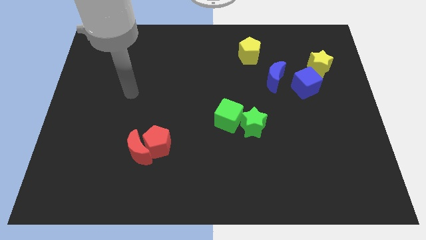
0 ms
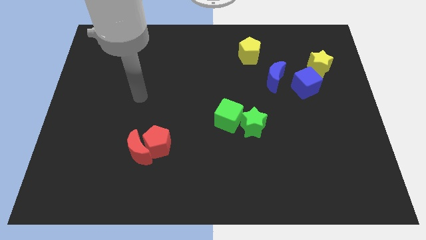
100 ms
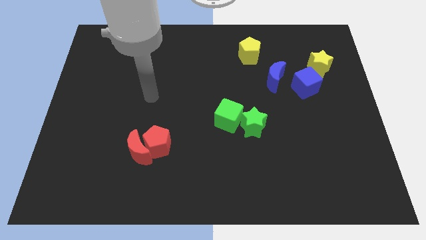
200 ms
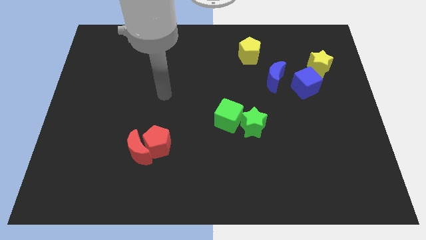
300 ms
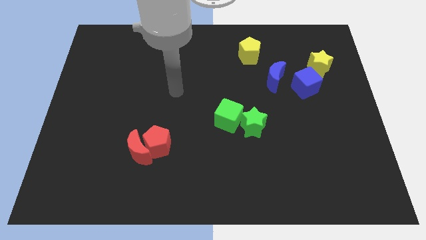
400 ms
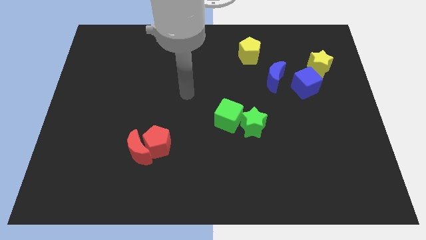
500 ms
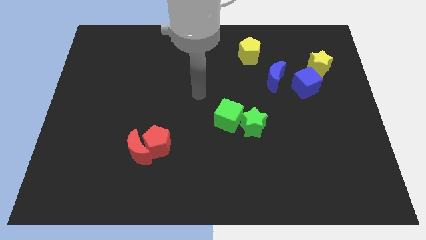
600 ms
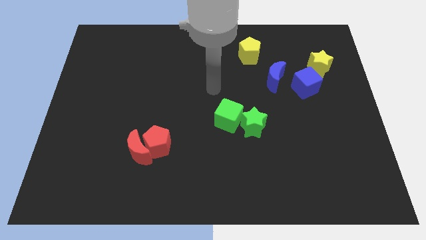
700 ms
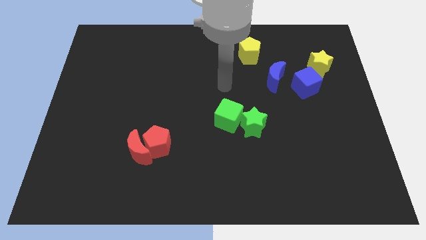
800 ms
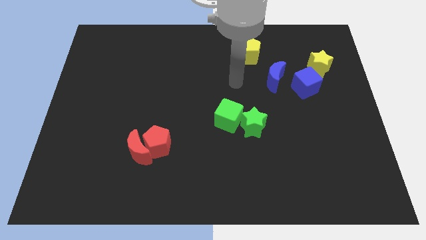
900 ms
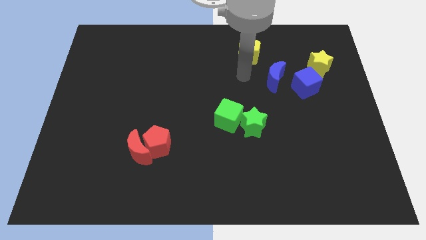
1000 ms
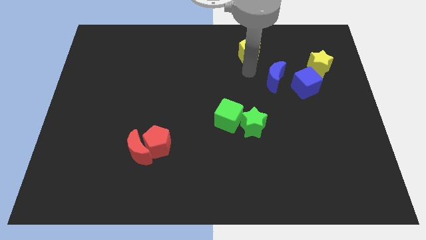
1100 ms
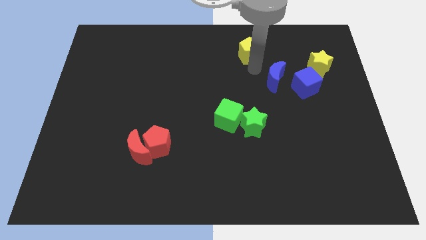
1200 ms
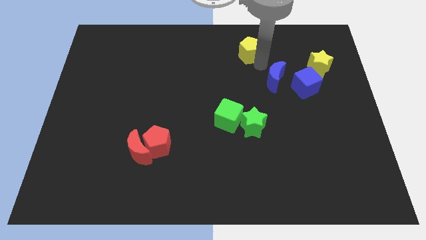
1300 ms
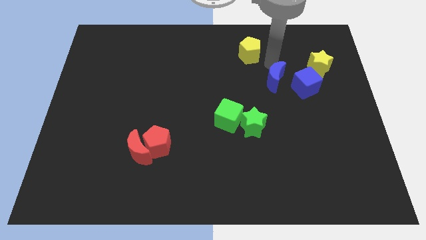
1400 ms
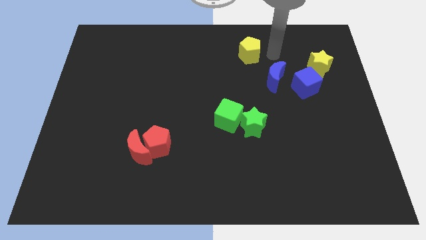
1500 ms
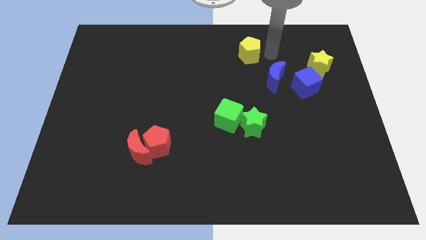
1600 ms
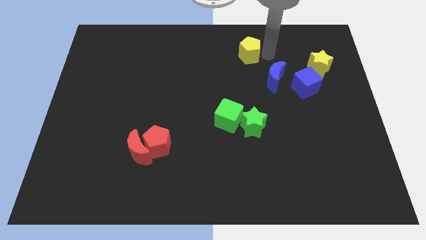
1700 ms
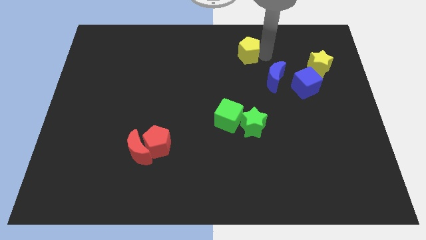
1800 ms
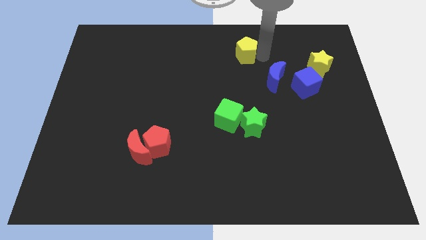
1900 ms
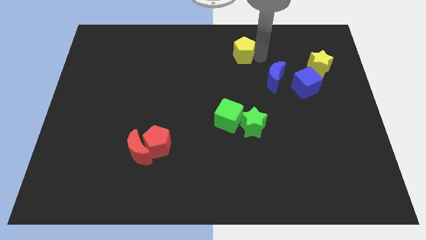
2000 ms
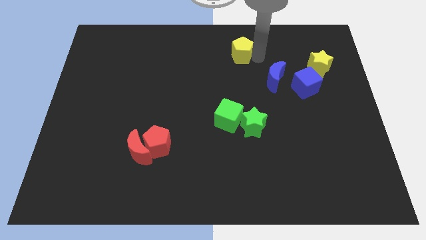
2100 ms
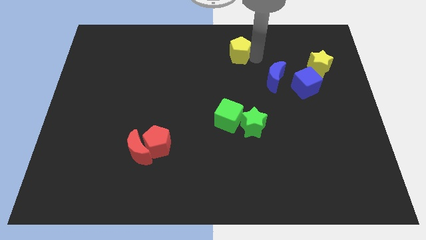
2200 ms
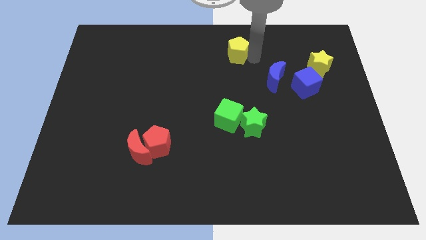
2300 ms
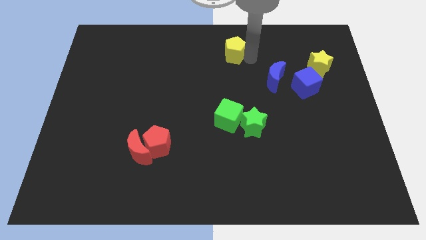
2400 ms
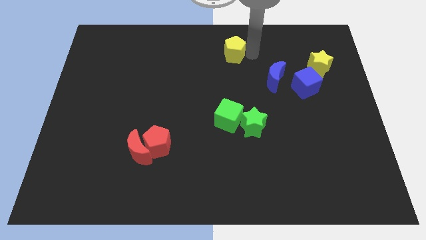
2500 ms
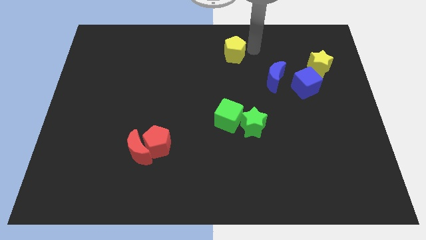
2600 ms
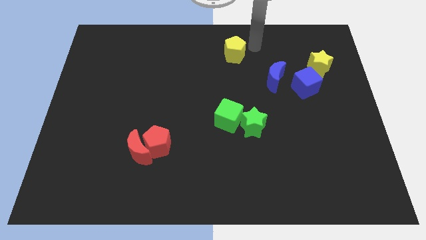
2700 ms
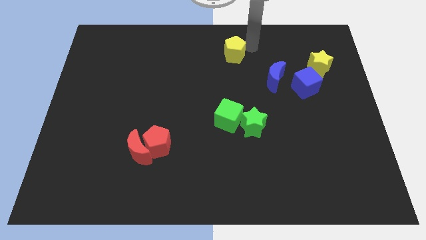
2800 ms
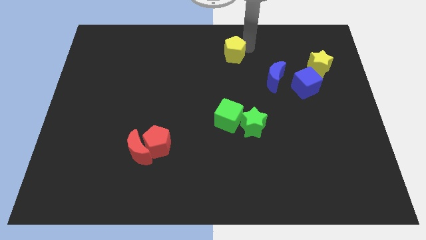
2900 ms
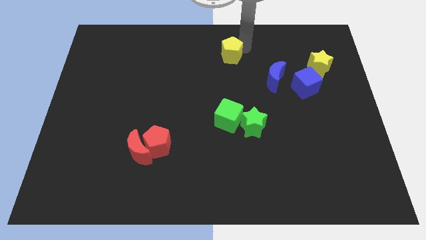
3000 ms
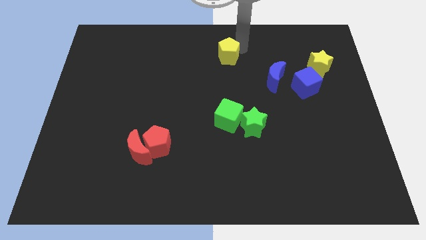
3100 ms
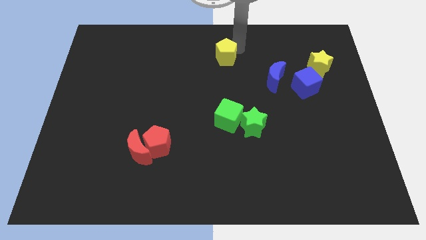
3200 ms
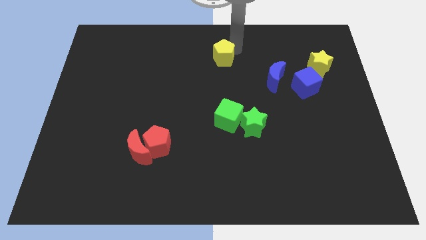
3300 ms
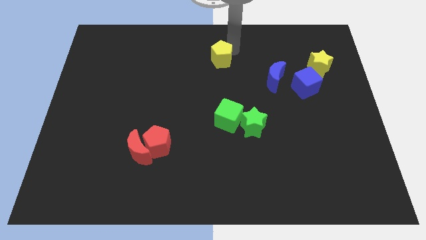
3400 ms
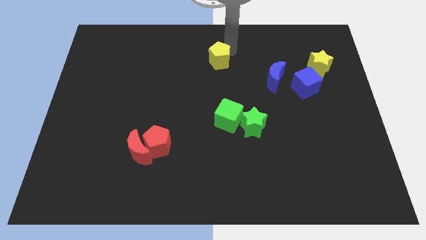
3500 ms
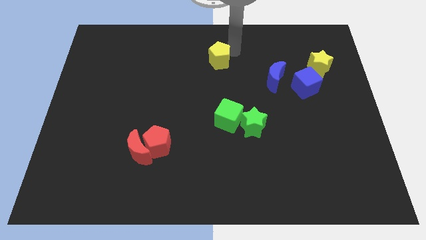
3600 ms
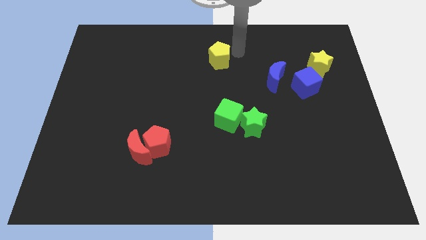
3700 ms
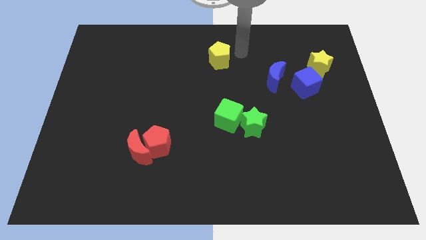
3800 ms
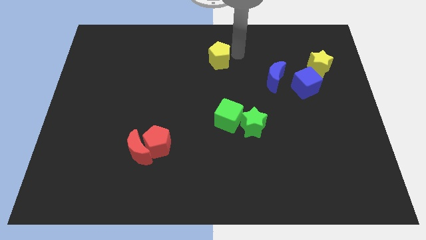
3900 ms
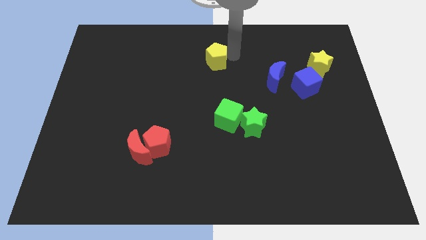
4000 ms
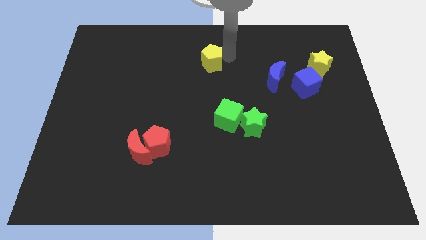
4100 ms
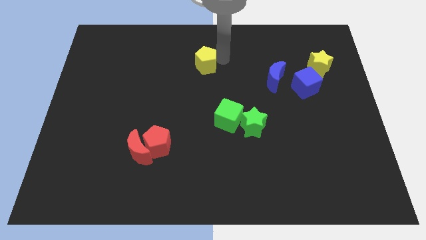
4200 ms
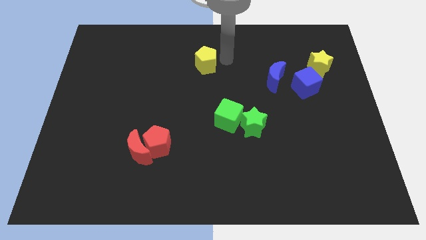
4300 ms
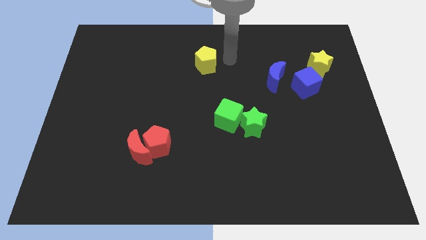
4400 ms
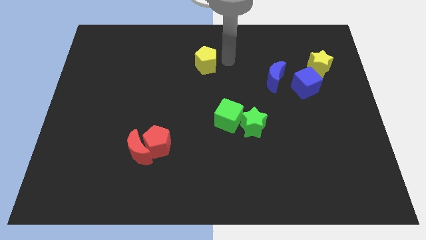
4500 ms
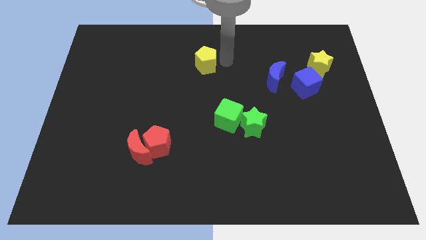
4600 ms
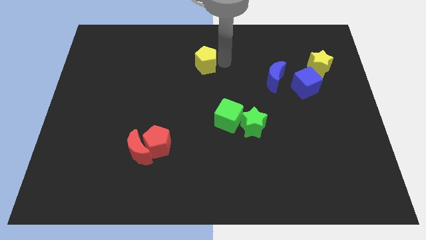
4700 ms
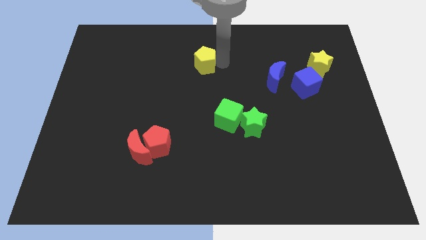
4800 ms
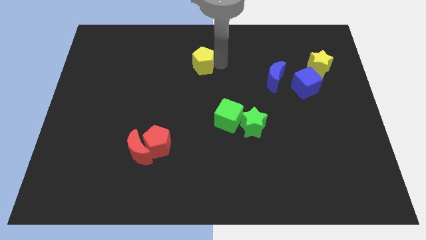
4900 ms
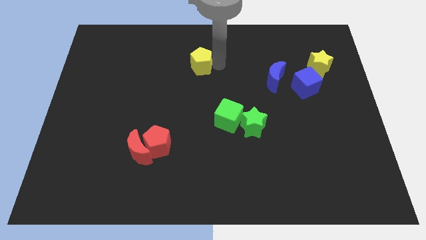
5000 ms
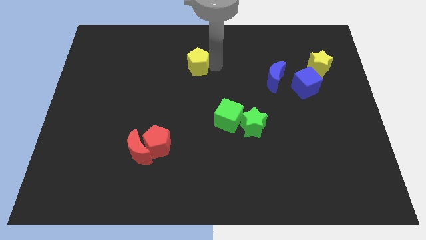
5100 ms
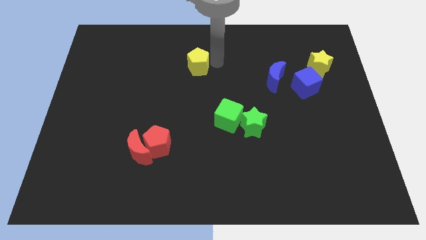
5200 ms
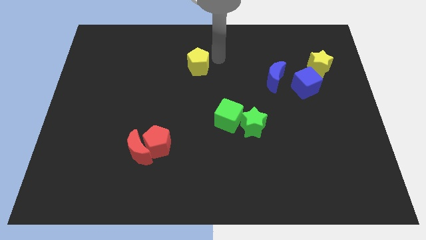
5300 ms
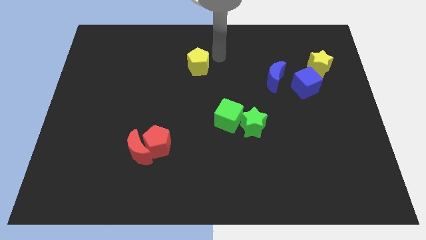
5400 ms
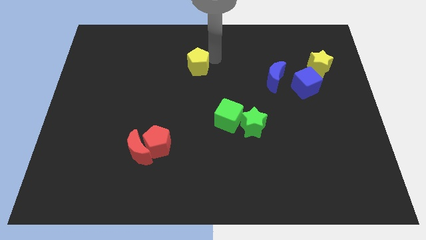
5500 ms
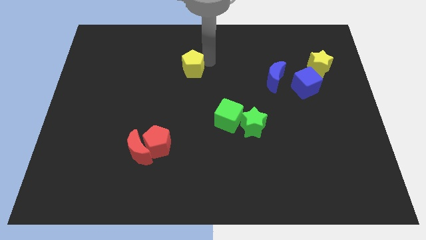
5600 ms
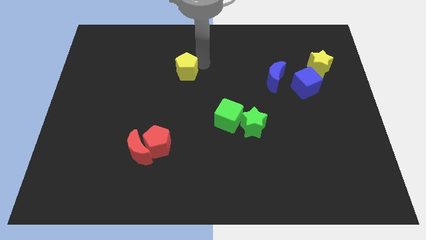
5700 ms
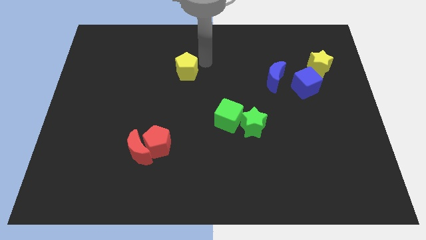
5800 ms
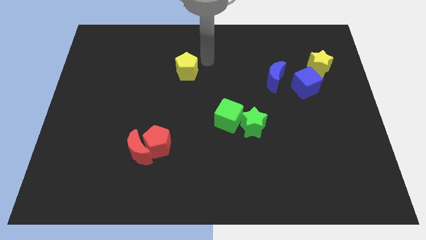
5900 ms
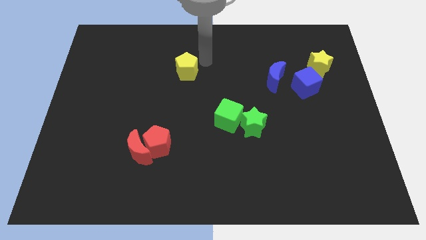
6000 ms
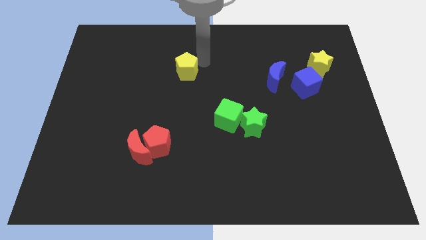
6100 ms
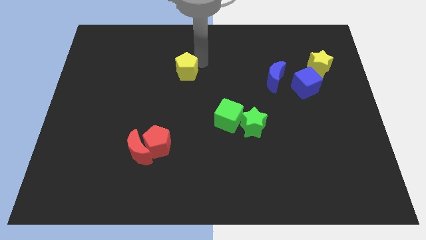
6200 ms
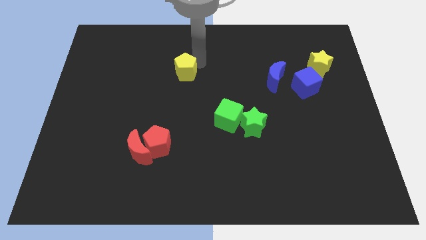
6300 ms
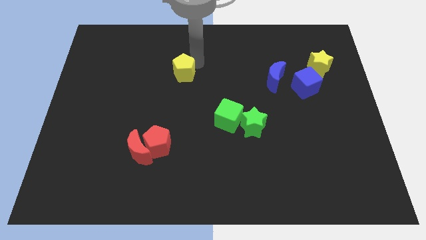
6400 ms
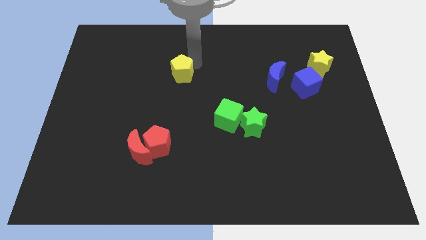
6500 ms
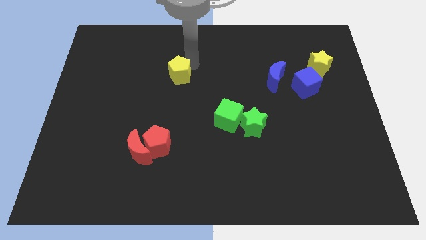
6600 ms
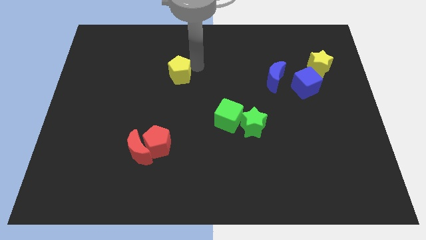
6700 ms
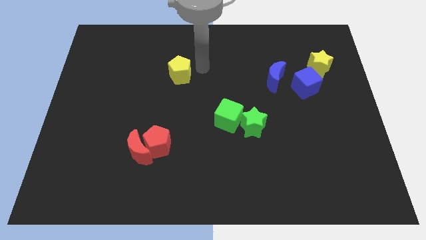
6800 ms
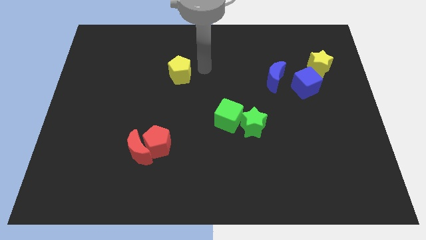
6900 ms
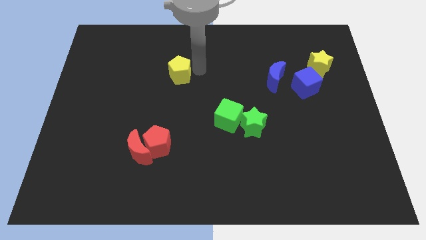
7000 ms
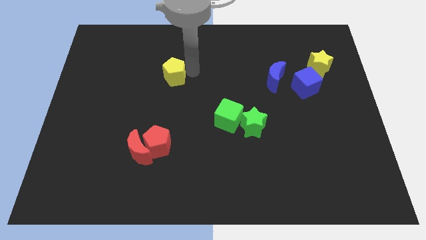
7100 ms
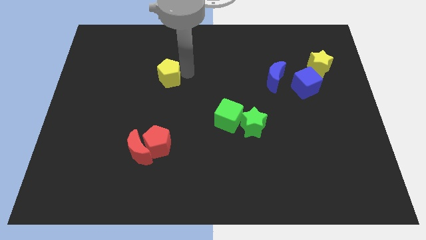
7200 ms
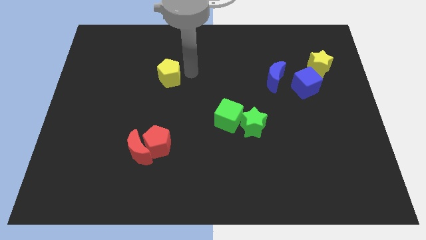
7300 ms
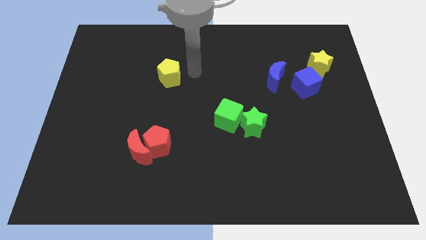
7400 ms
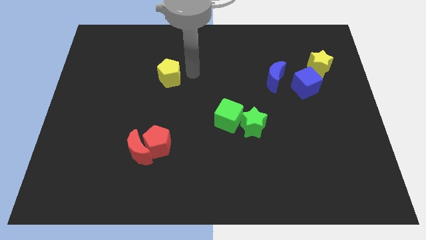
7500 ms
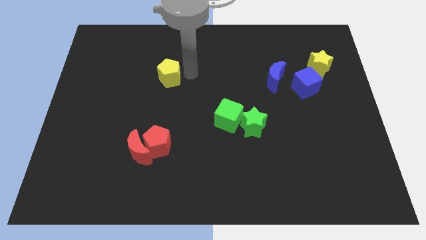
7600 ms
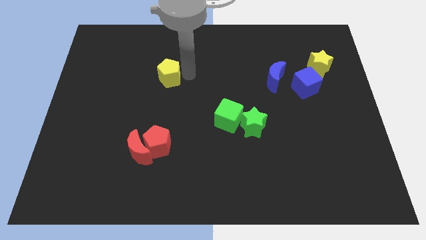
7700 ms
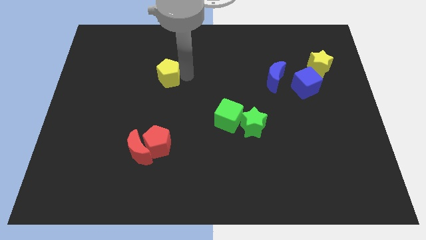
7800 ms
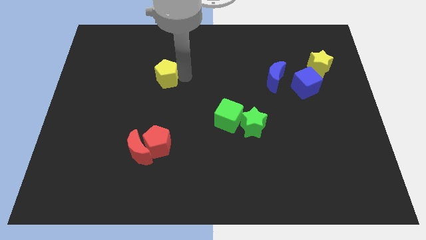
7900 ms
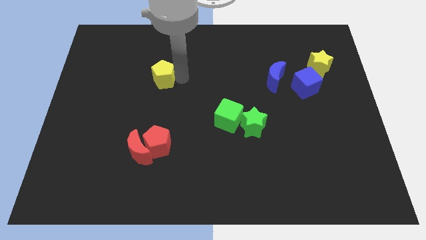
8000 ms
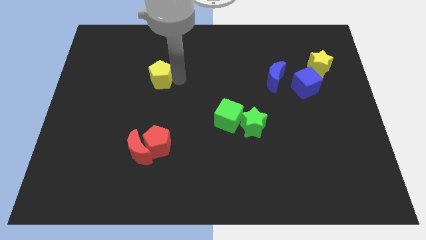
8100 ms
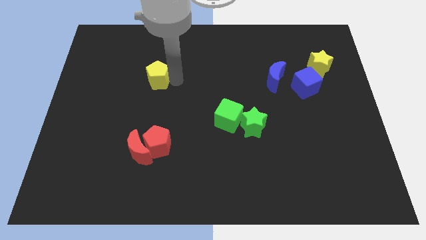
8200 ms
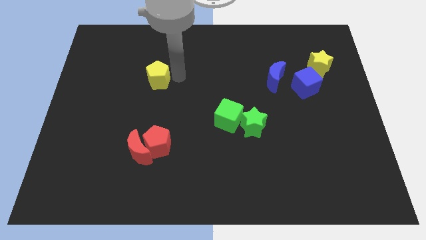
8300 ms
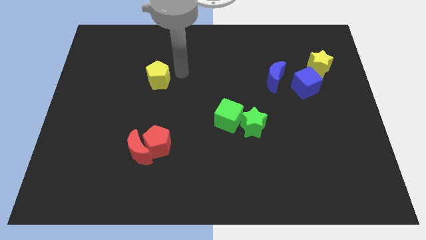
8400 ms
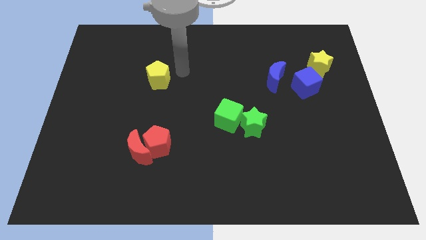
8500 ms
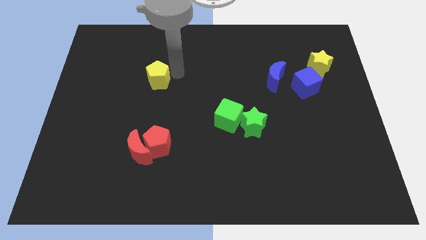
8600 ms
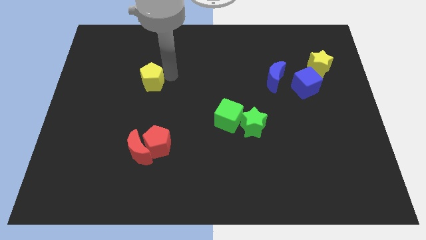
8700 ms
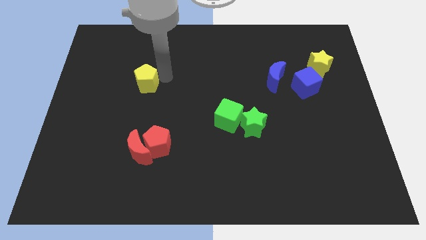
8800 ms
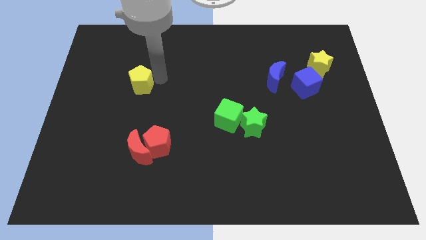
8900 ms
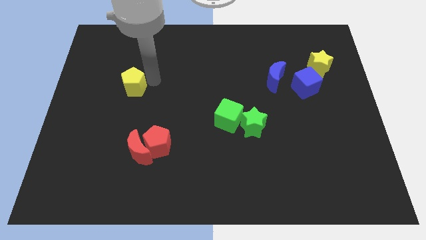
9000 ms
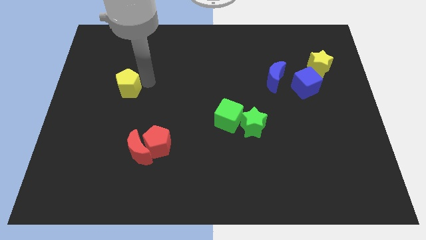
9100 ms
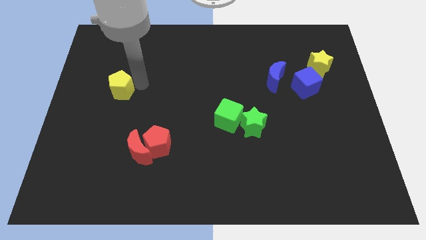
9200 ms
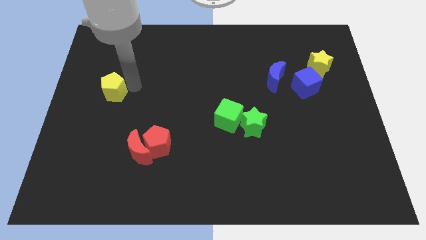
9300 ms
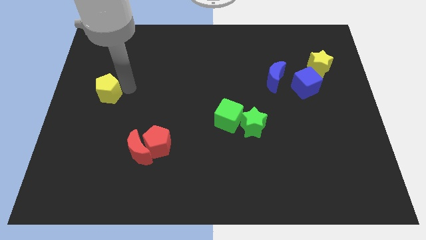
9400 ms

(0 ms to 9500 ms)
move the yellow pentagon to the center left
